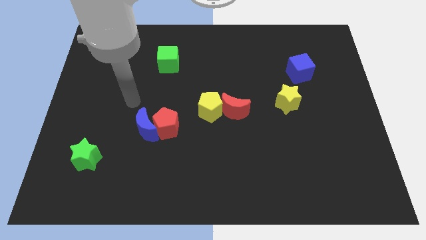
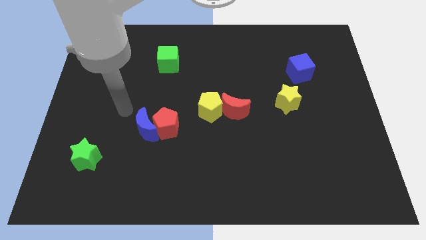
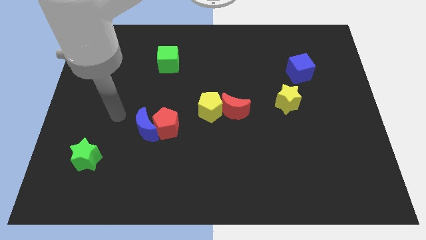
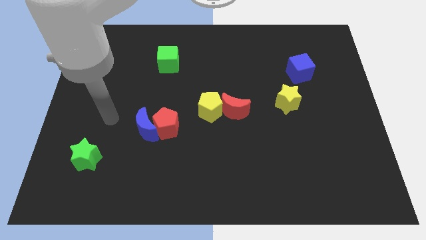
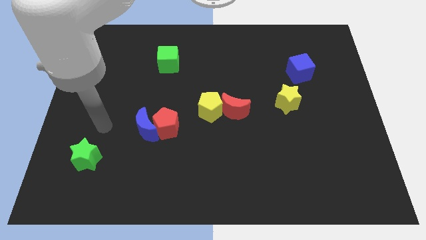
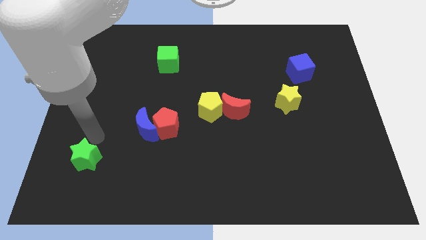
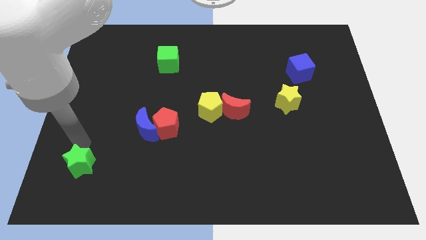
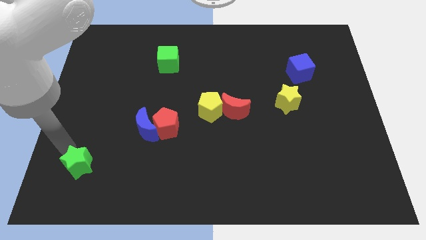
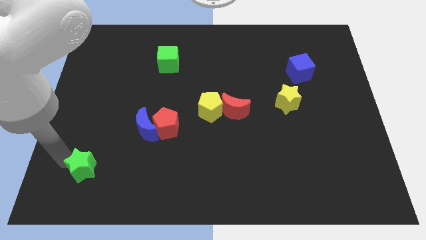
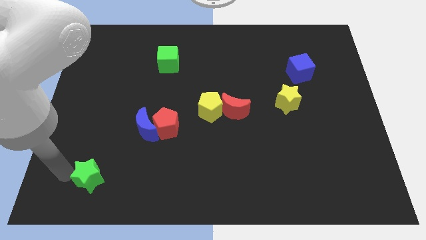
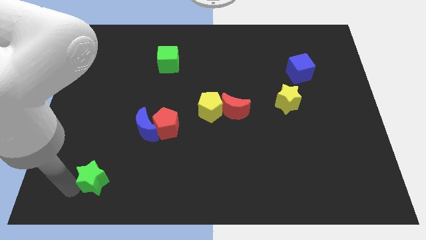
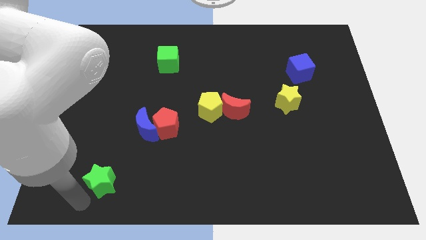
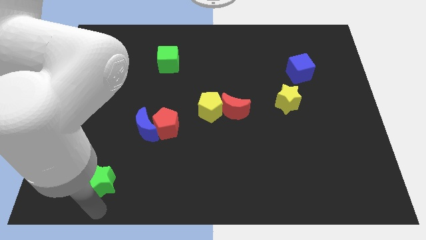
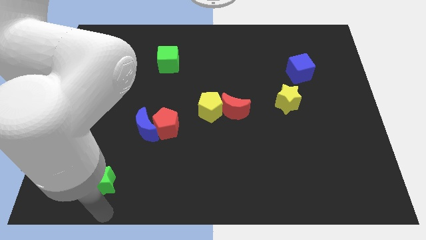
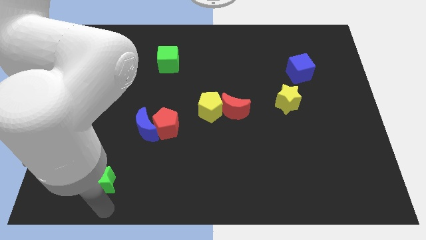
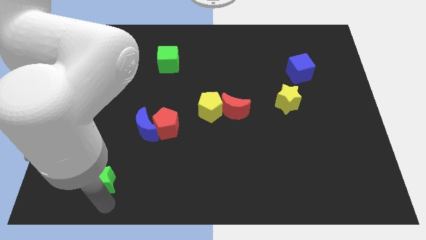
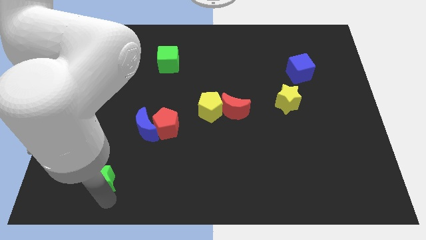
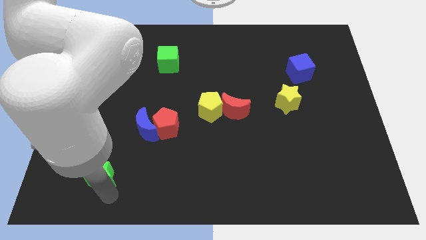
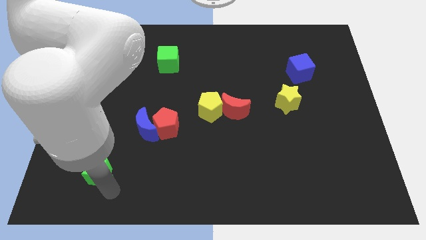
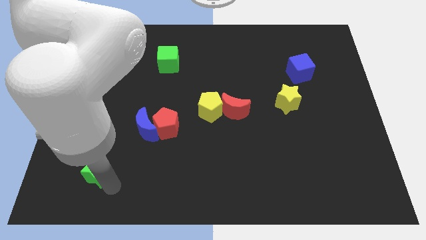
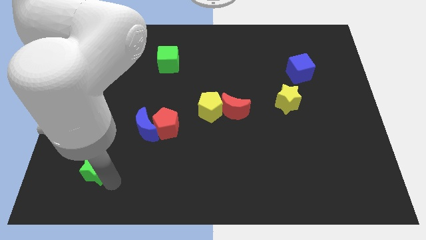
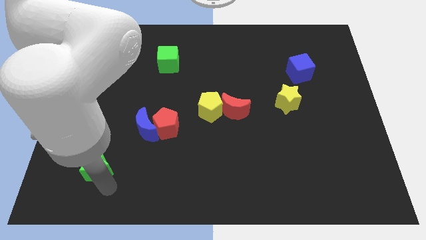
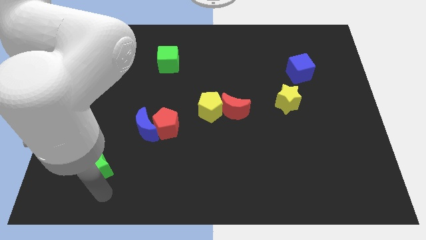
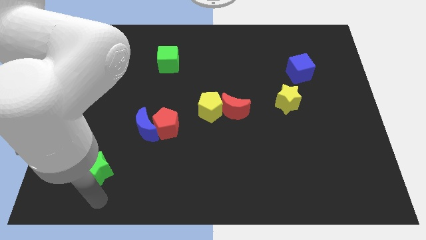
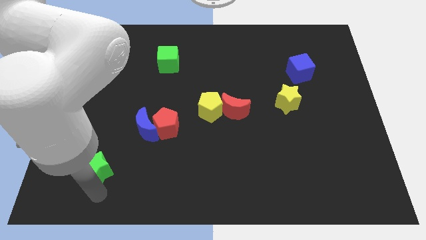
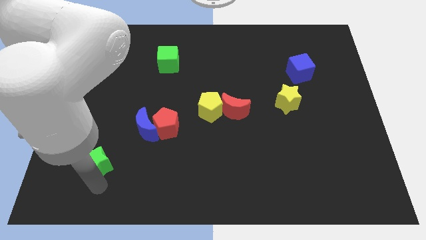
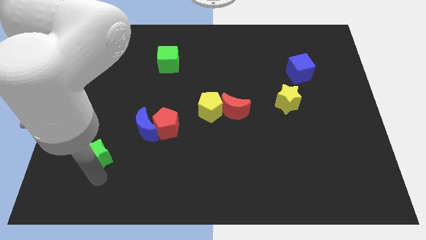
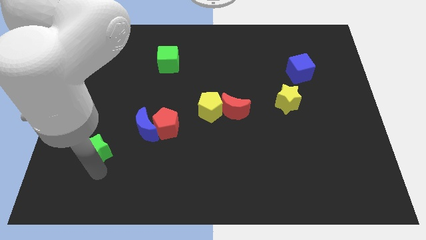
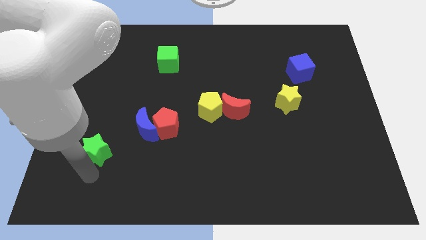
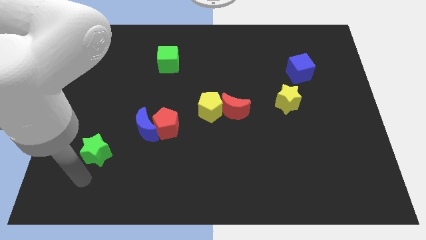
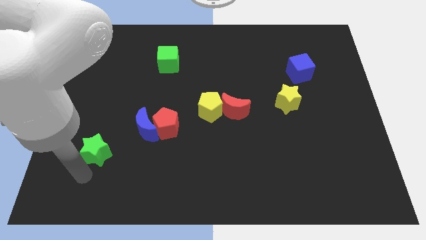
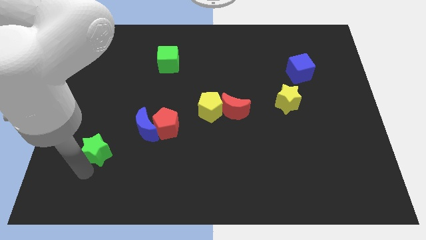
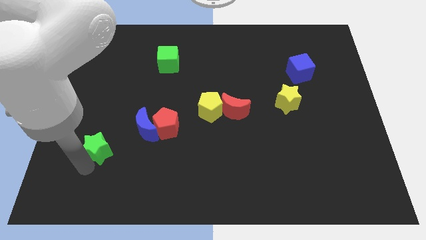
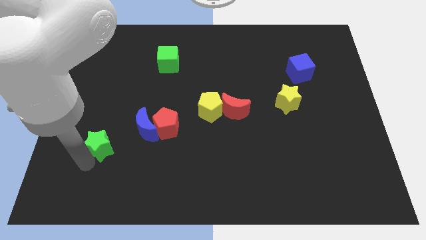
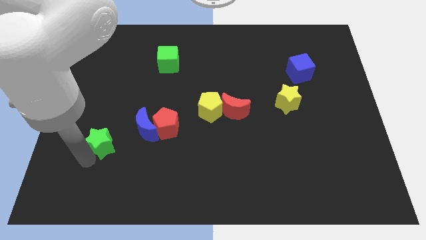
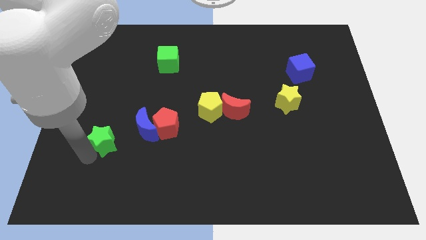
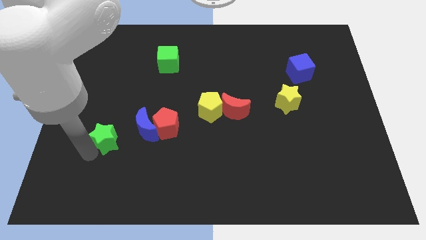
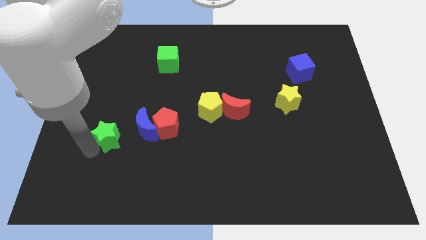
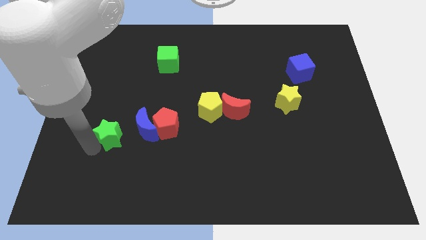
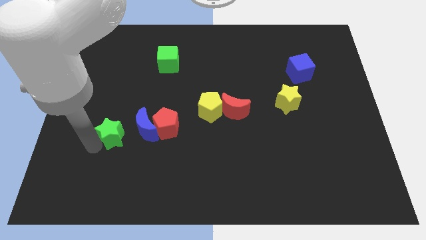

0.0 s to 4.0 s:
slide the green star slightly up and to the right diagonally

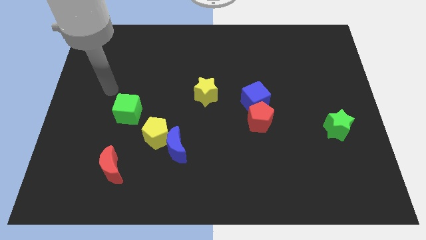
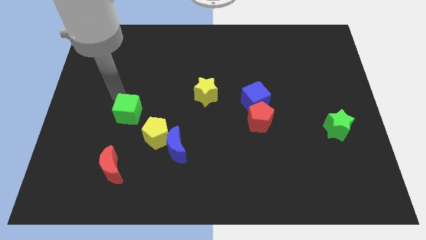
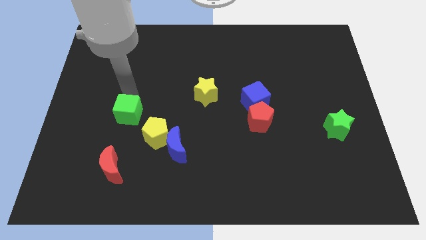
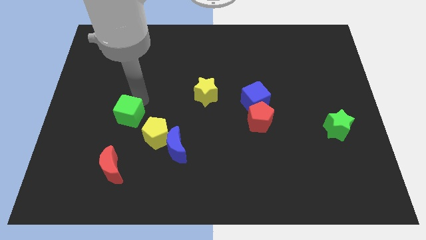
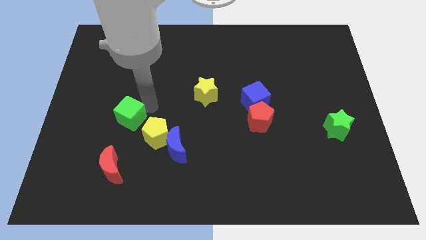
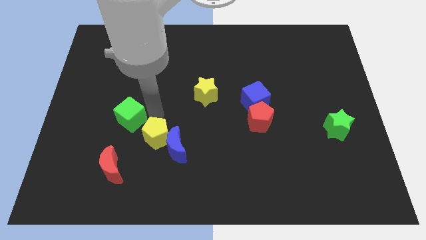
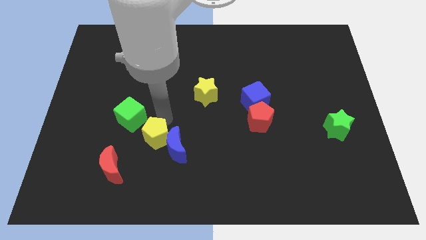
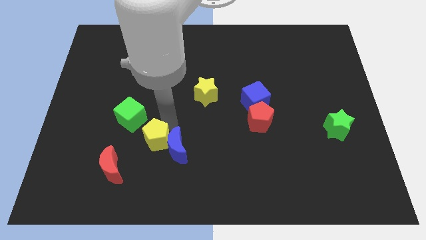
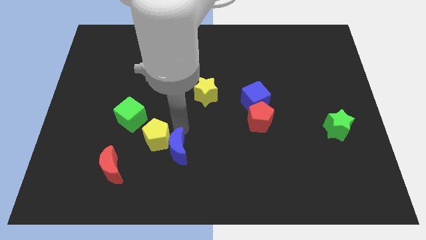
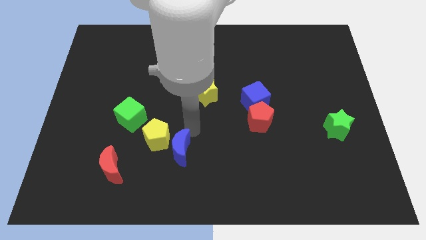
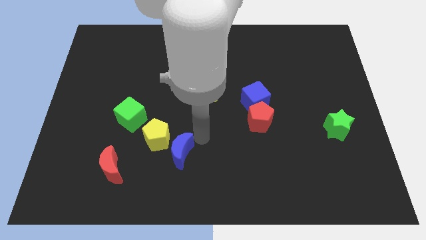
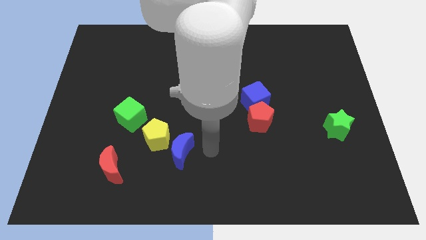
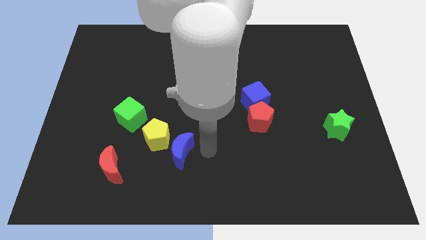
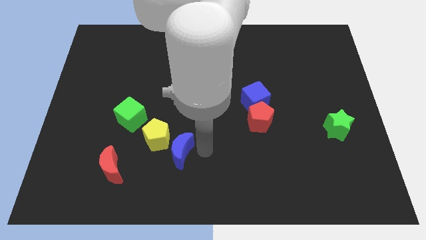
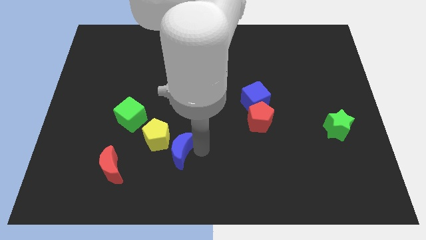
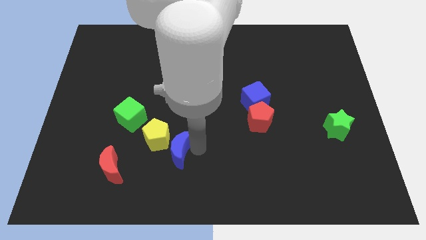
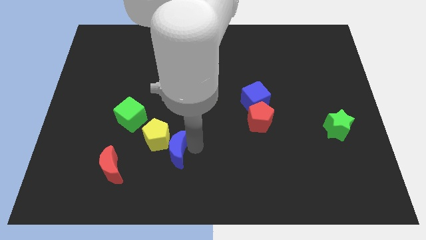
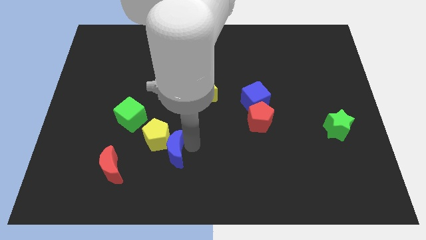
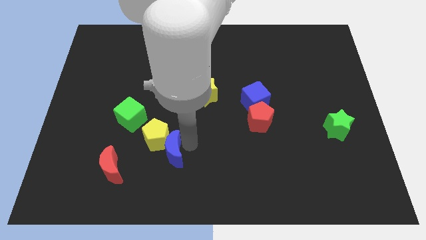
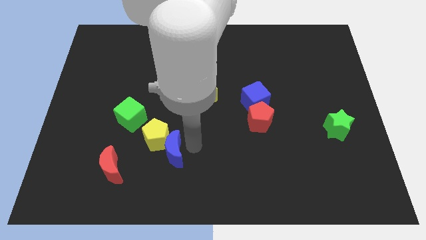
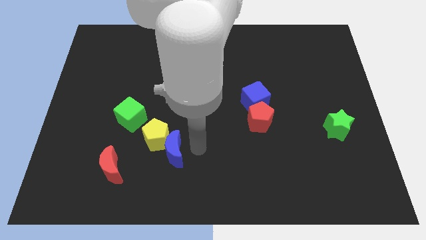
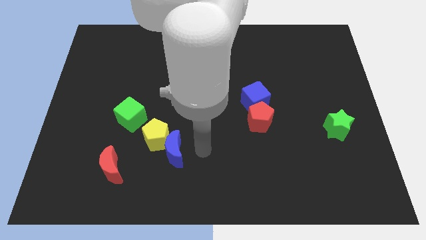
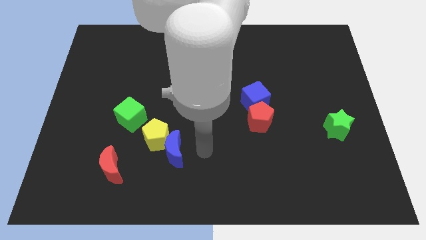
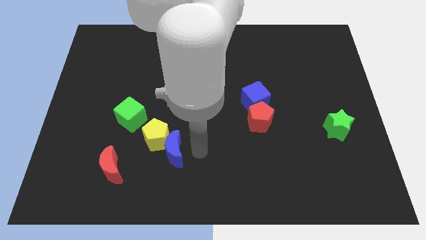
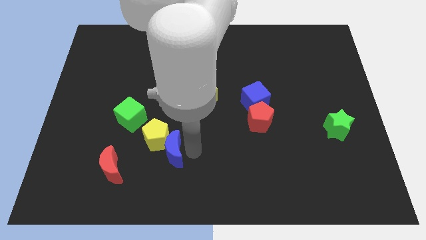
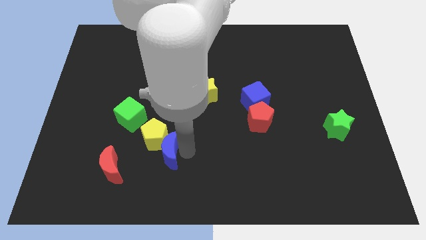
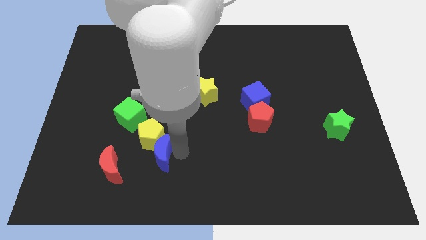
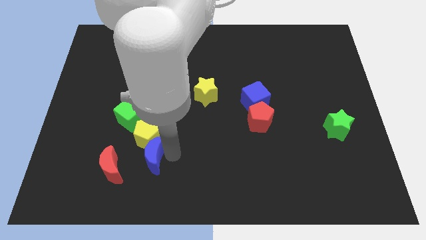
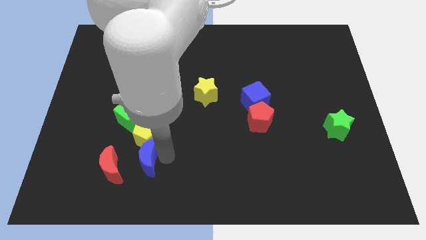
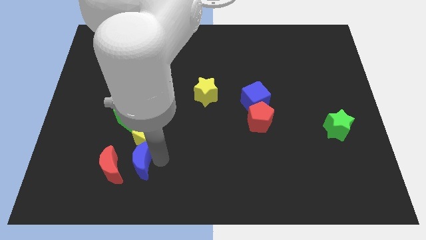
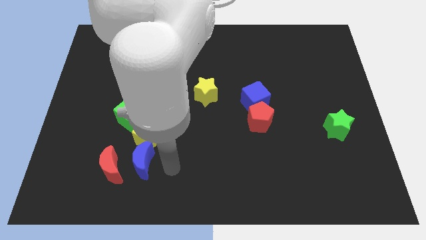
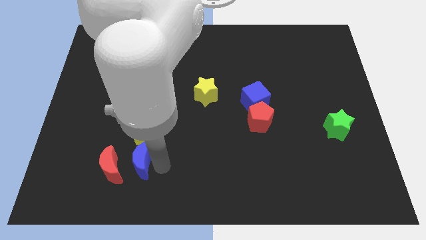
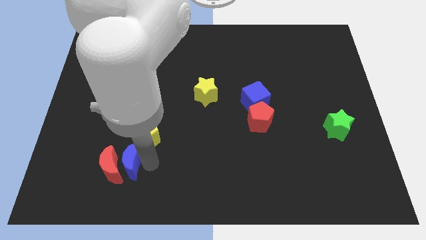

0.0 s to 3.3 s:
slightly move the blue moon to the left

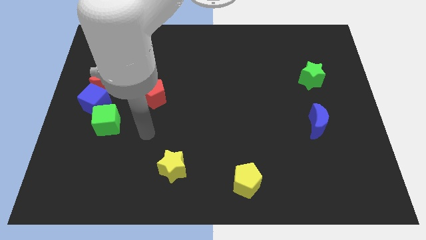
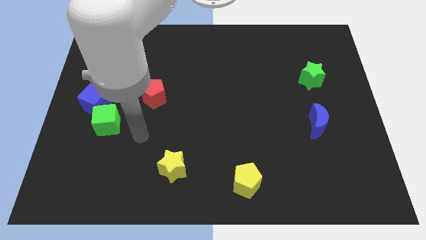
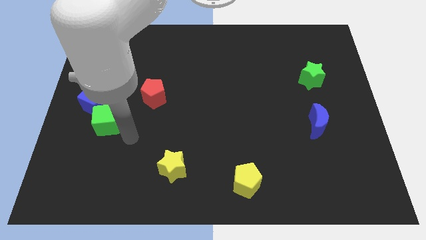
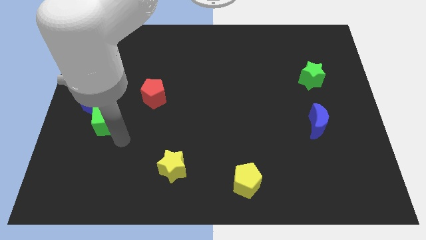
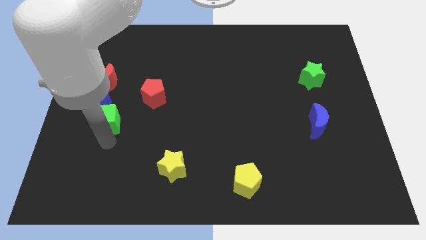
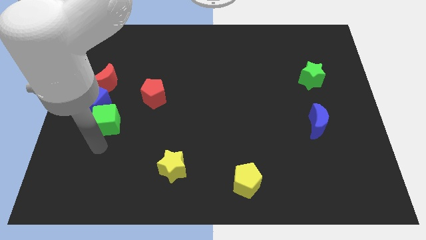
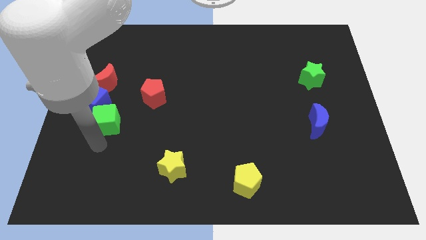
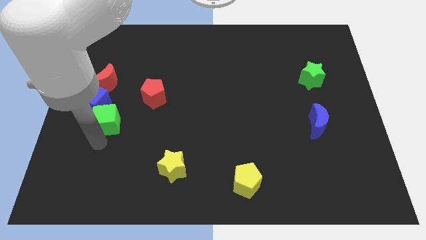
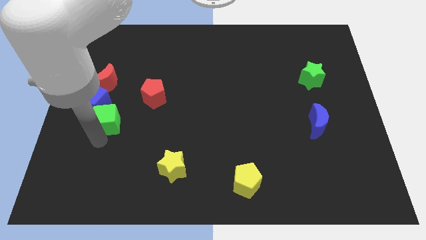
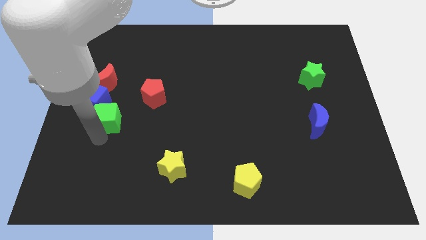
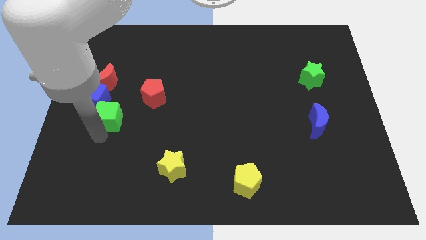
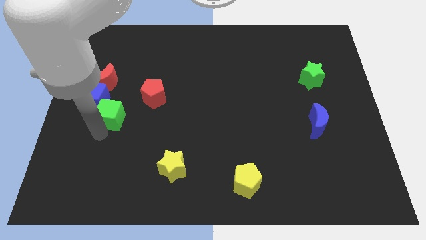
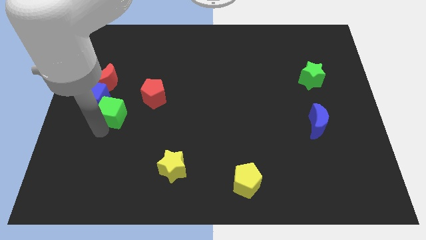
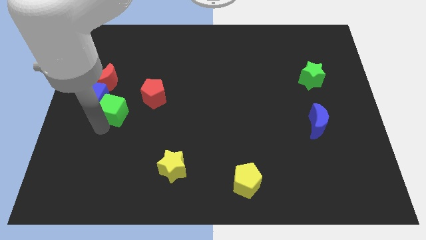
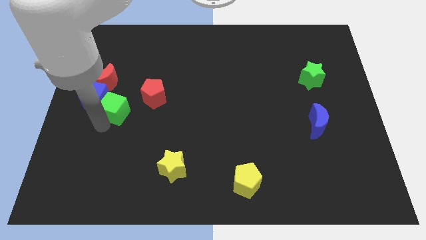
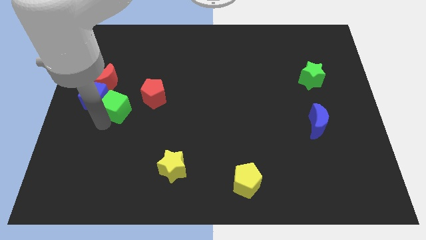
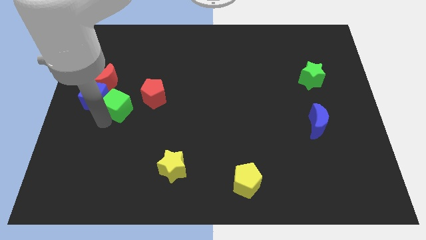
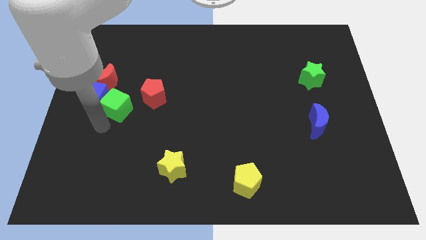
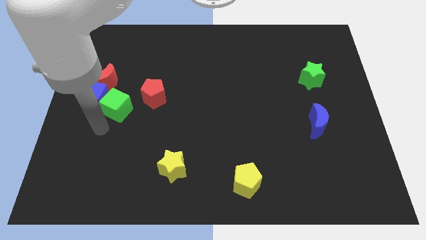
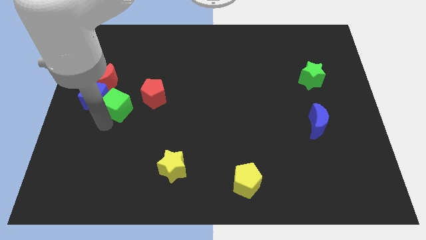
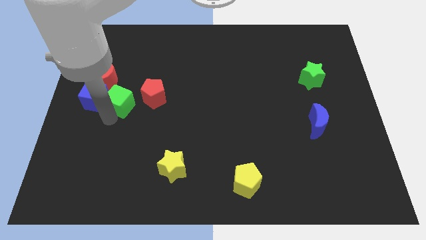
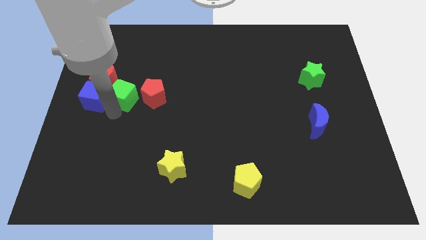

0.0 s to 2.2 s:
move the green cube diagonally upwards and right somewhat
